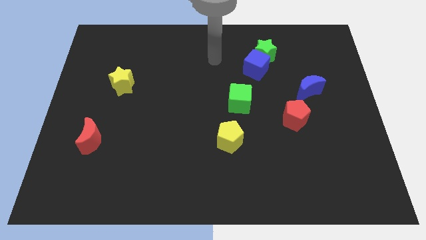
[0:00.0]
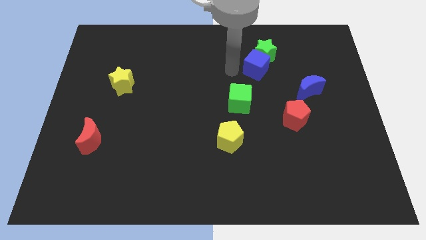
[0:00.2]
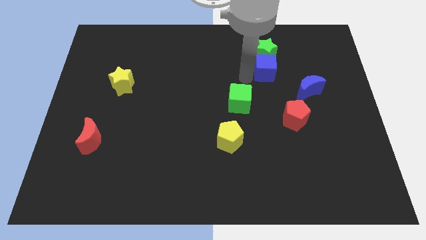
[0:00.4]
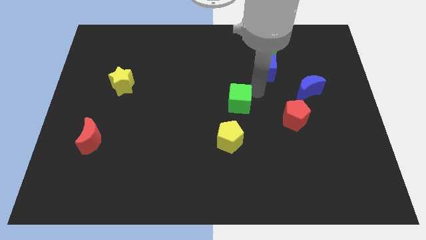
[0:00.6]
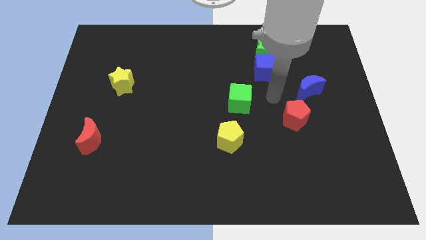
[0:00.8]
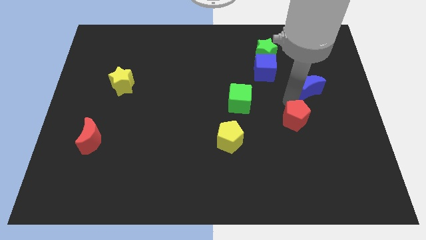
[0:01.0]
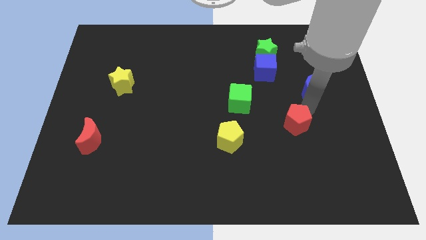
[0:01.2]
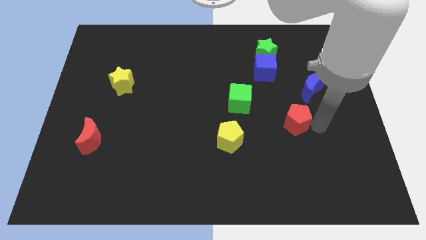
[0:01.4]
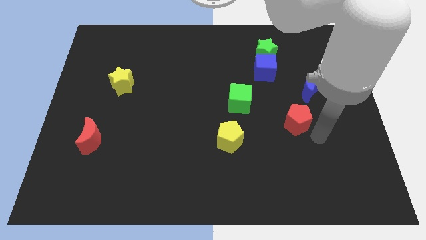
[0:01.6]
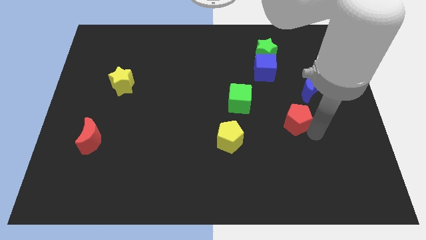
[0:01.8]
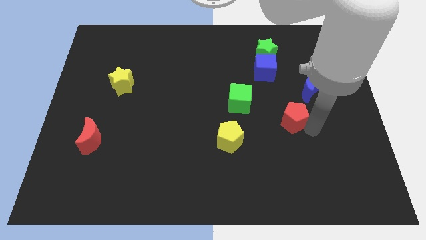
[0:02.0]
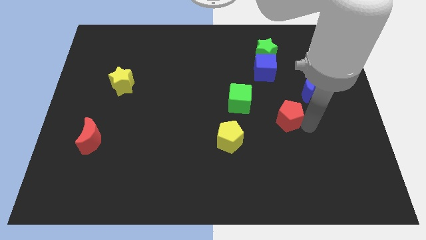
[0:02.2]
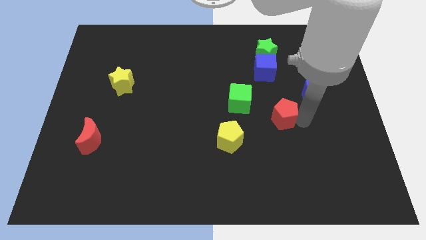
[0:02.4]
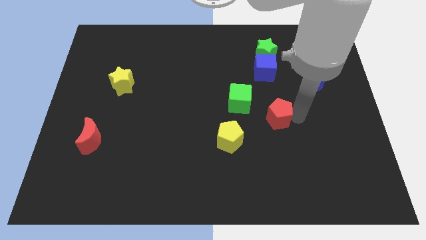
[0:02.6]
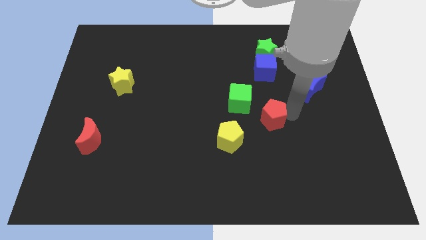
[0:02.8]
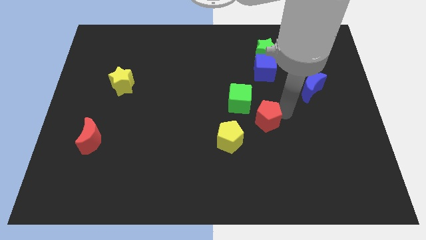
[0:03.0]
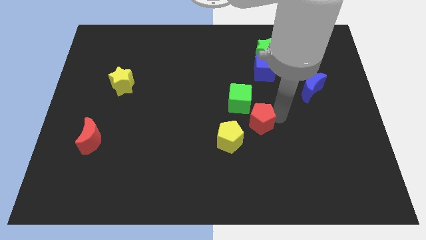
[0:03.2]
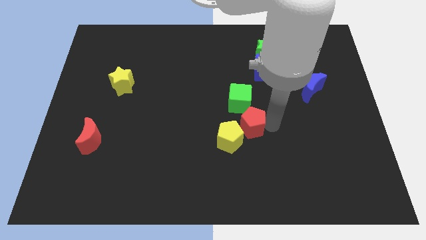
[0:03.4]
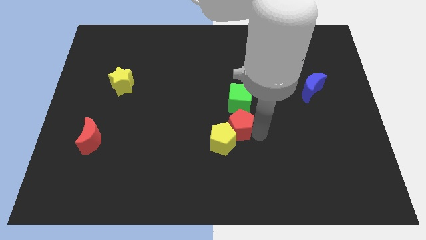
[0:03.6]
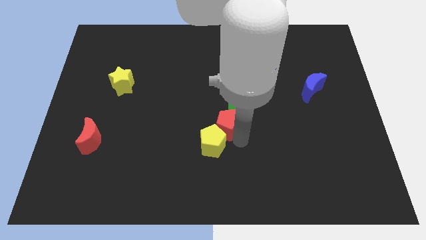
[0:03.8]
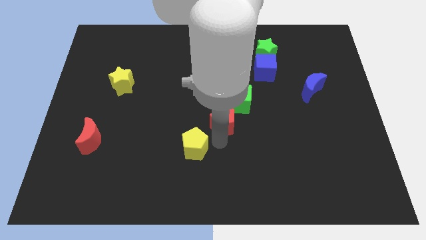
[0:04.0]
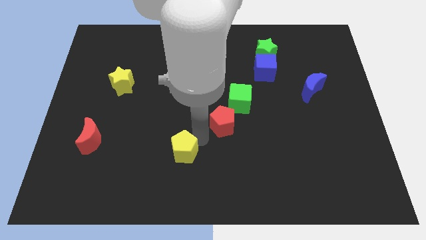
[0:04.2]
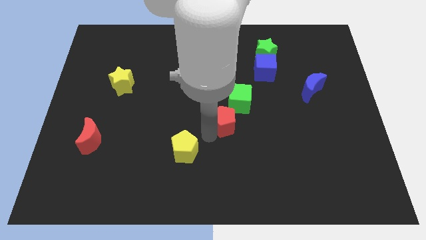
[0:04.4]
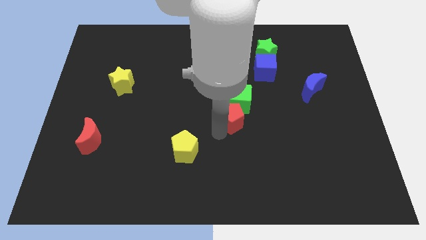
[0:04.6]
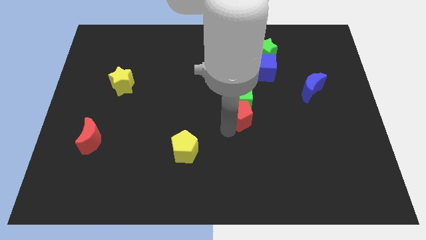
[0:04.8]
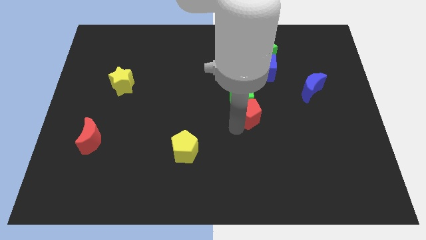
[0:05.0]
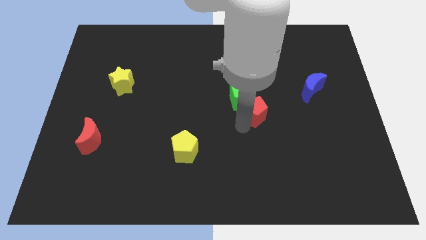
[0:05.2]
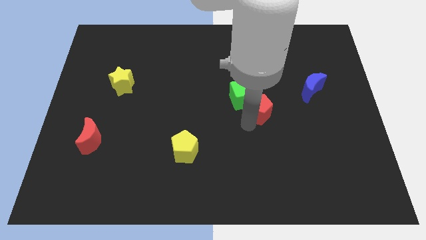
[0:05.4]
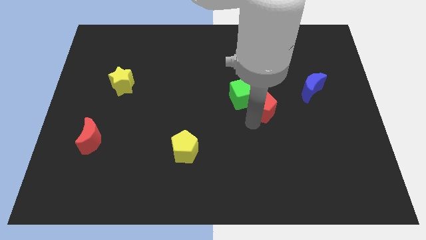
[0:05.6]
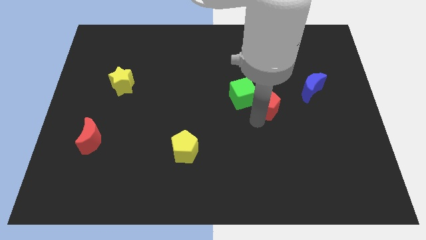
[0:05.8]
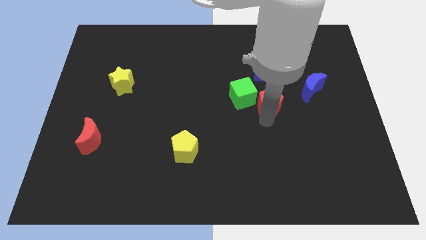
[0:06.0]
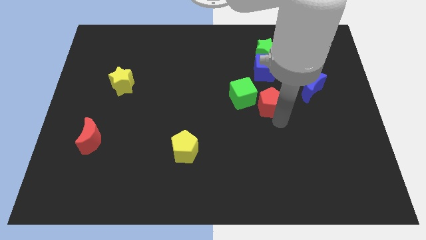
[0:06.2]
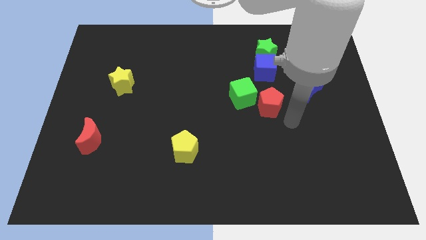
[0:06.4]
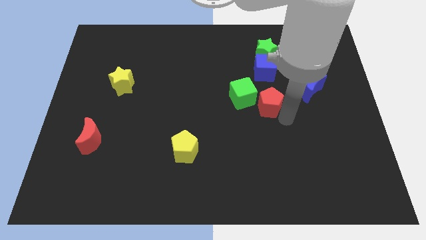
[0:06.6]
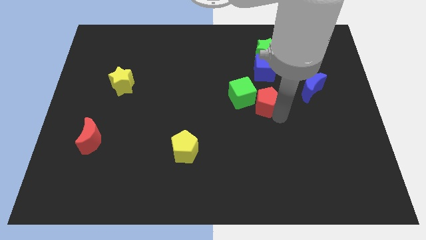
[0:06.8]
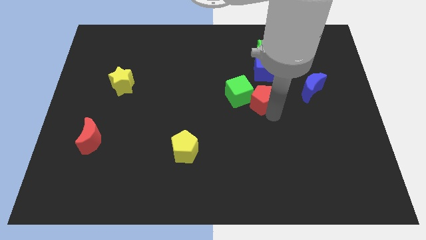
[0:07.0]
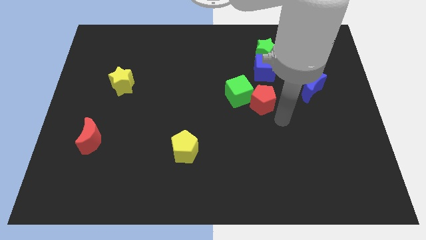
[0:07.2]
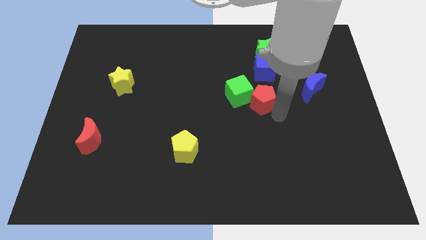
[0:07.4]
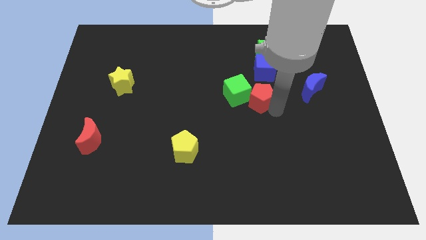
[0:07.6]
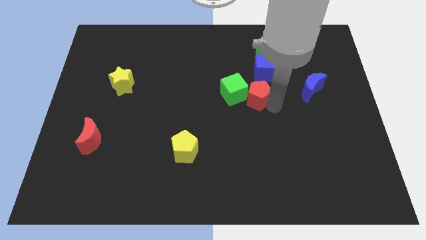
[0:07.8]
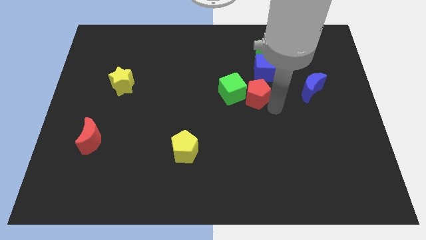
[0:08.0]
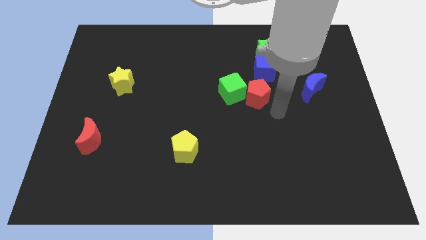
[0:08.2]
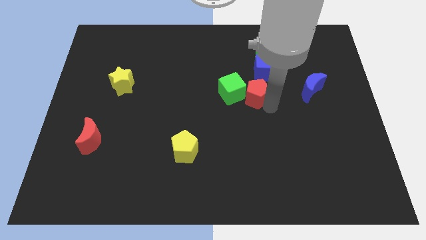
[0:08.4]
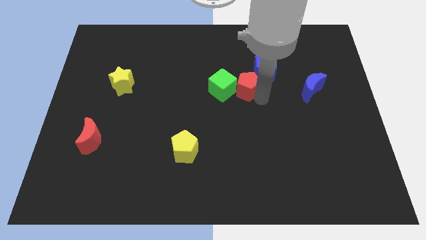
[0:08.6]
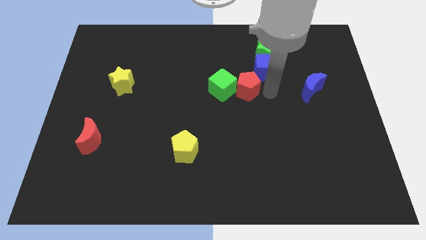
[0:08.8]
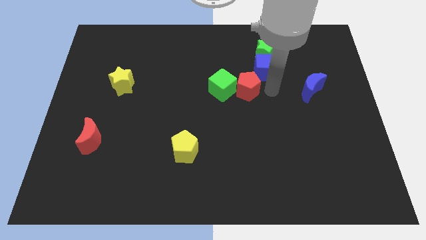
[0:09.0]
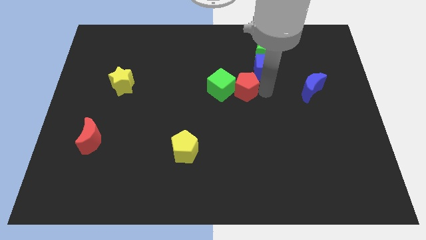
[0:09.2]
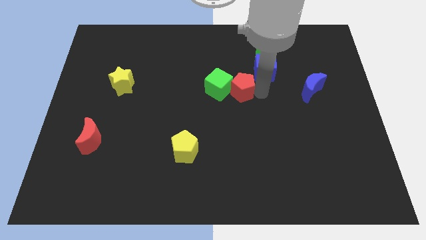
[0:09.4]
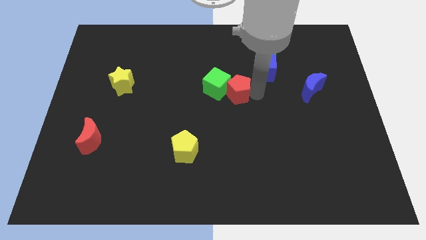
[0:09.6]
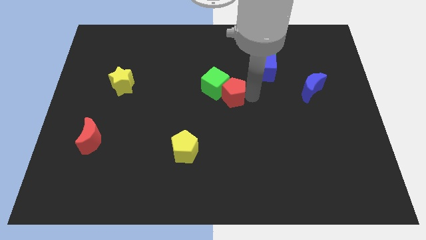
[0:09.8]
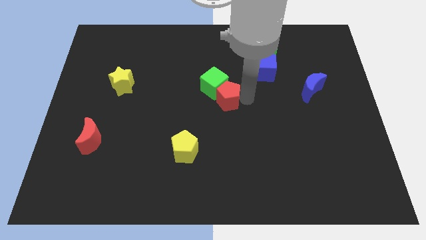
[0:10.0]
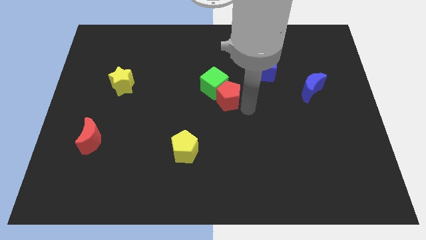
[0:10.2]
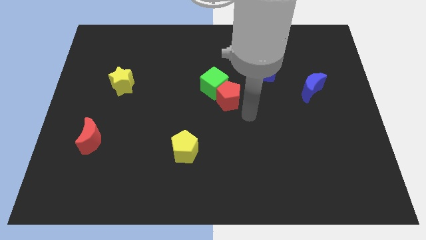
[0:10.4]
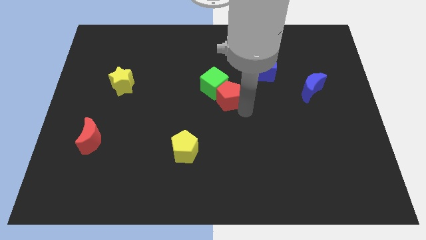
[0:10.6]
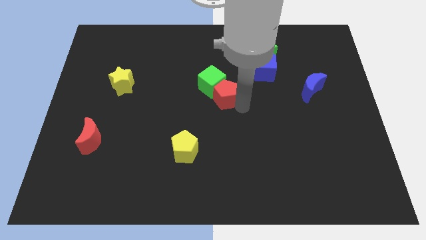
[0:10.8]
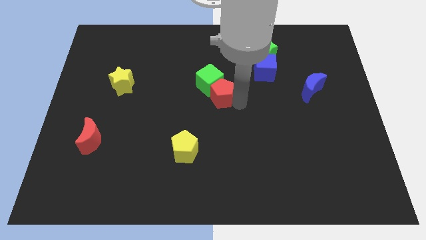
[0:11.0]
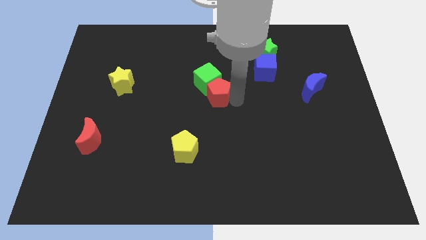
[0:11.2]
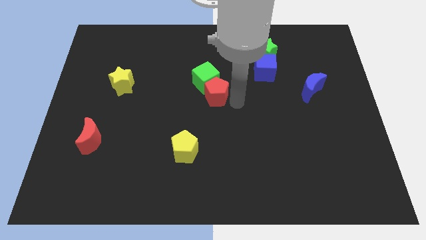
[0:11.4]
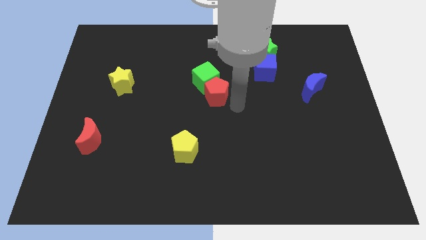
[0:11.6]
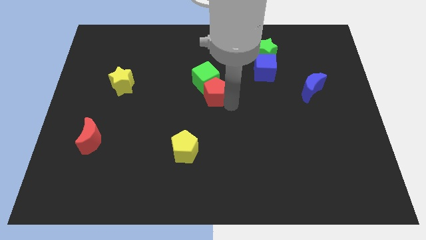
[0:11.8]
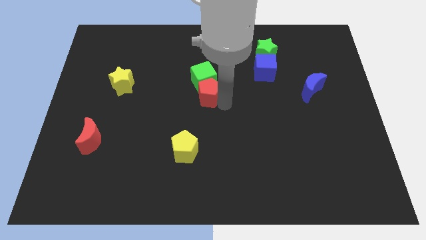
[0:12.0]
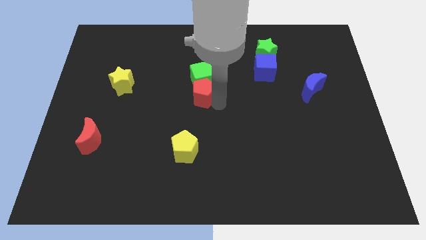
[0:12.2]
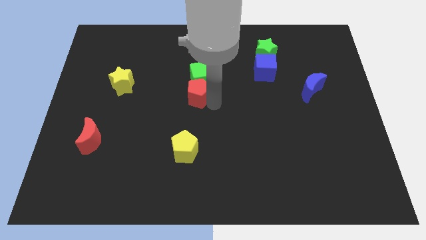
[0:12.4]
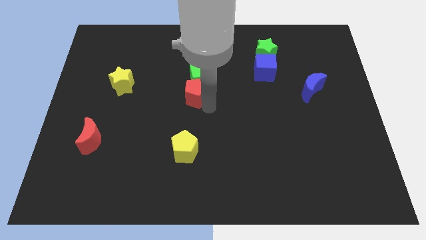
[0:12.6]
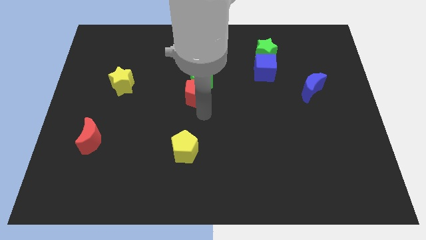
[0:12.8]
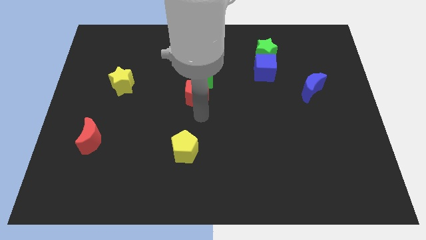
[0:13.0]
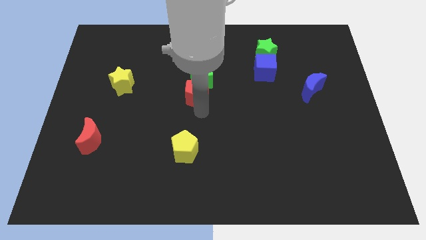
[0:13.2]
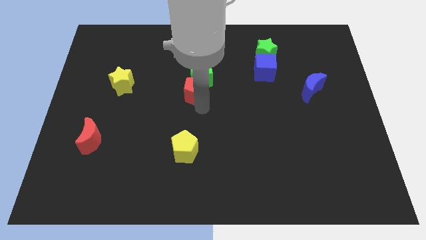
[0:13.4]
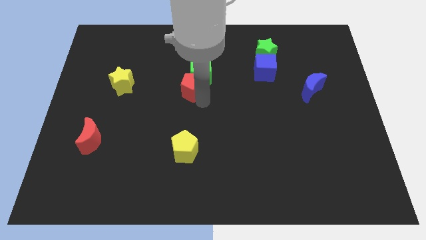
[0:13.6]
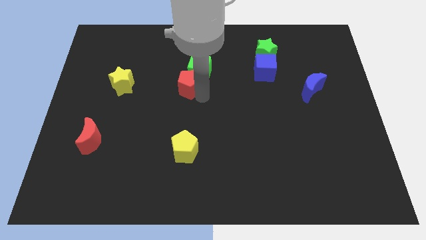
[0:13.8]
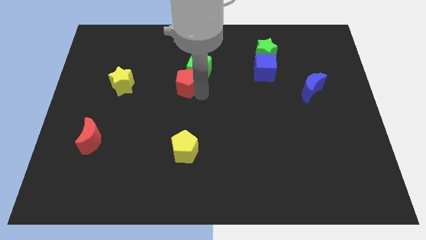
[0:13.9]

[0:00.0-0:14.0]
move the red pentagon to the right of the yellow star
